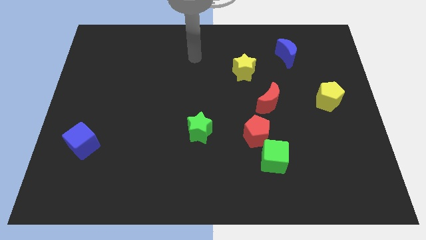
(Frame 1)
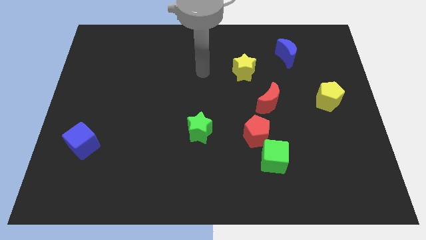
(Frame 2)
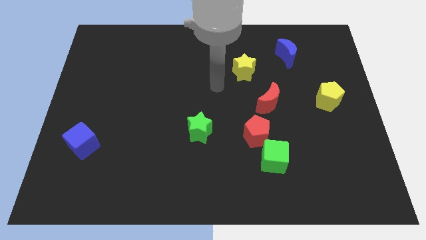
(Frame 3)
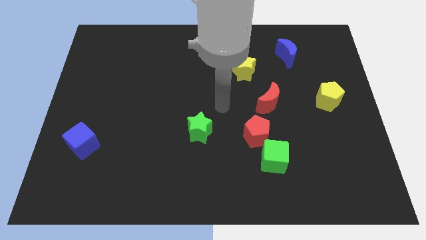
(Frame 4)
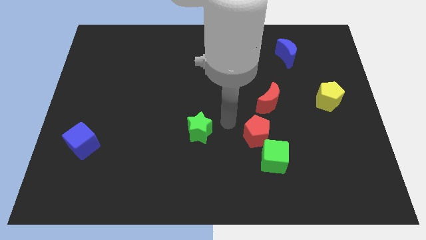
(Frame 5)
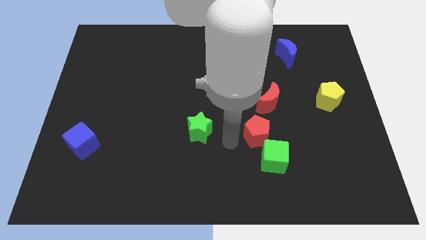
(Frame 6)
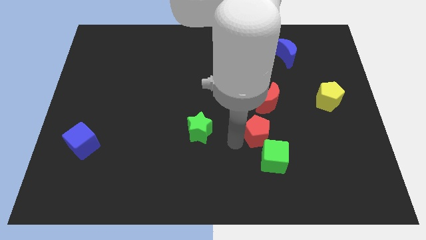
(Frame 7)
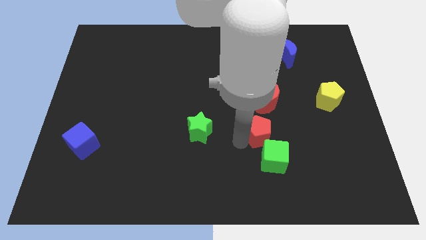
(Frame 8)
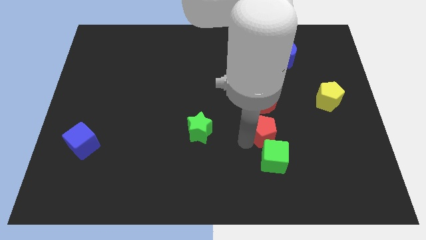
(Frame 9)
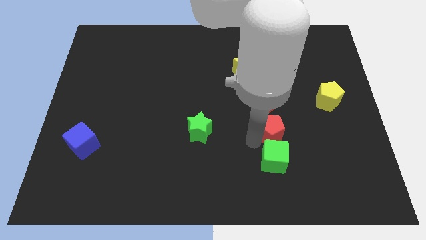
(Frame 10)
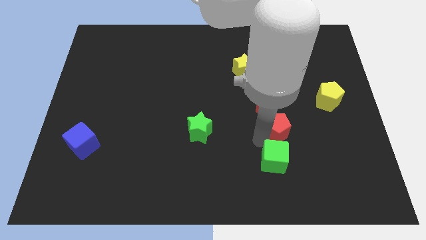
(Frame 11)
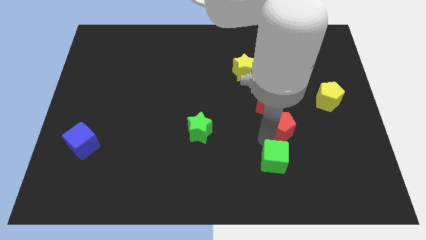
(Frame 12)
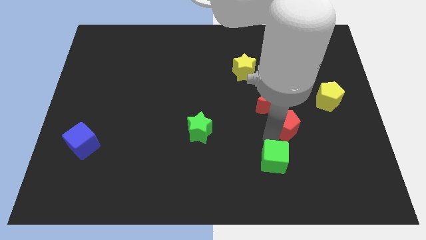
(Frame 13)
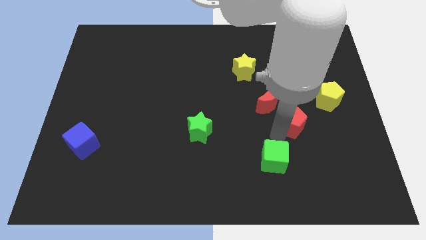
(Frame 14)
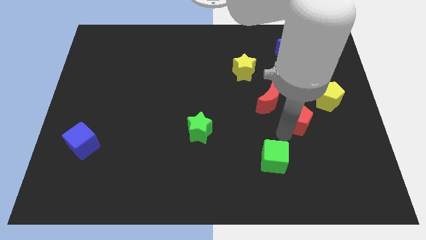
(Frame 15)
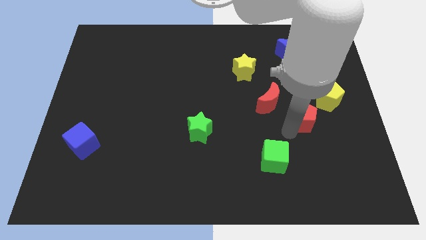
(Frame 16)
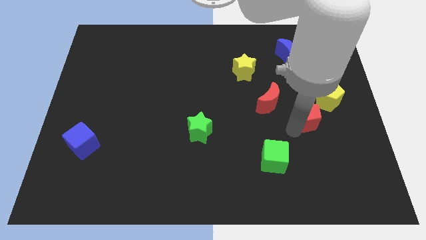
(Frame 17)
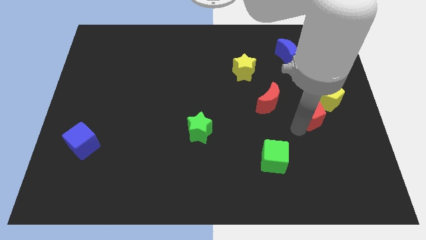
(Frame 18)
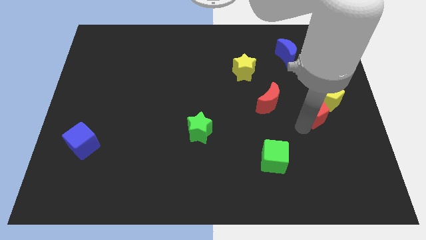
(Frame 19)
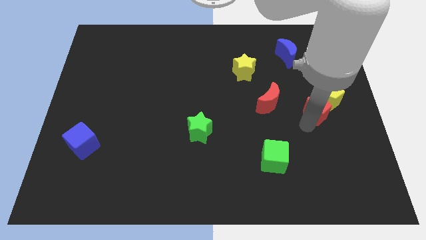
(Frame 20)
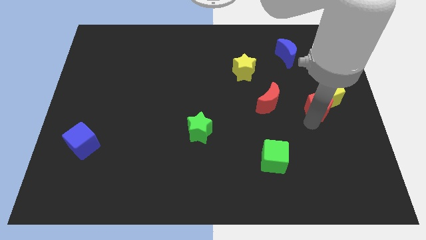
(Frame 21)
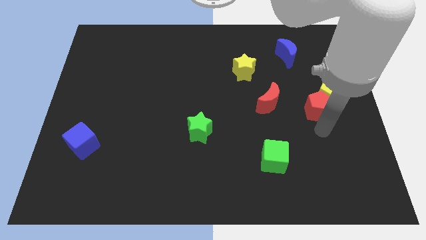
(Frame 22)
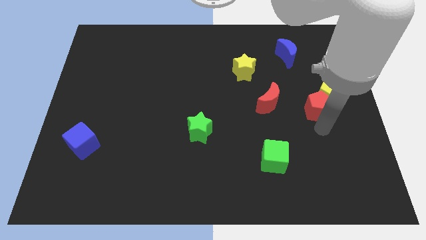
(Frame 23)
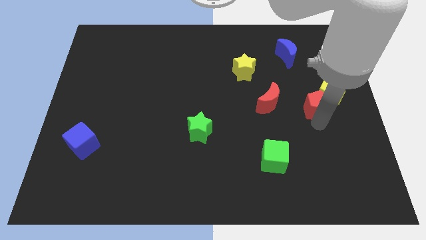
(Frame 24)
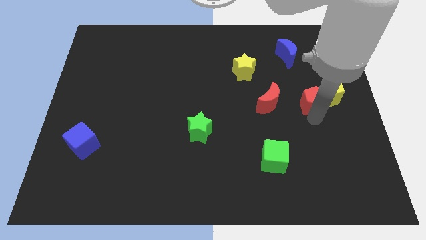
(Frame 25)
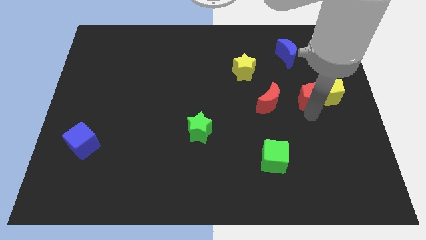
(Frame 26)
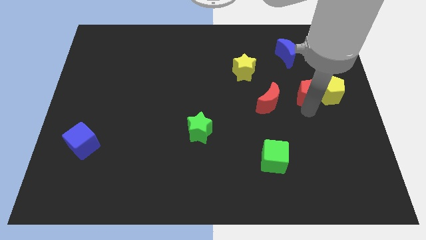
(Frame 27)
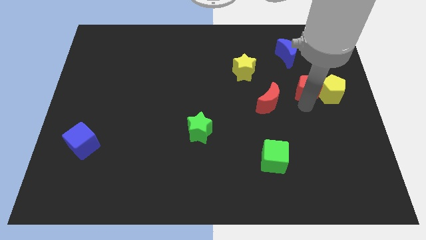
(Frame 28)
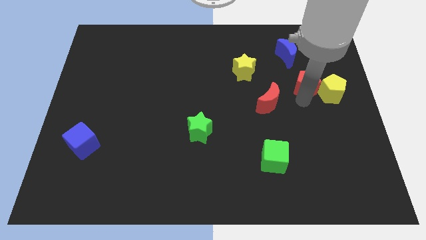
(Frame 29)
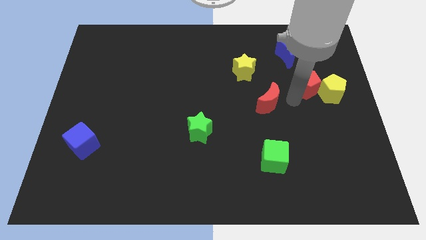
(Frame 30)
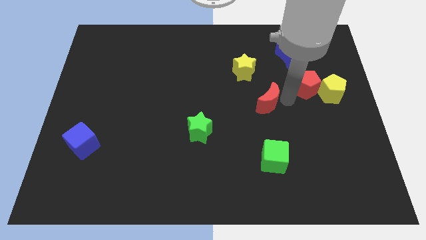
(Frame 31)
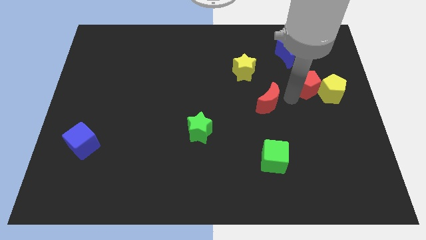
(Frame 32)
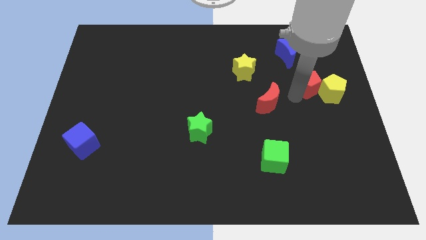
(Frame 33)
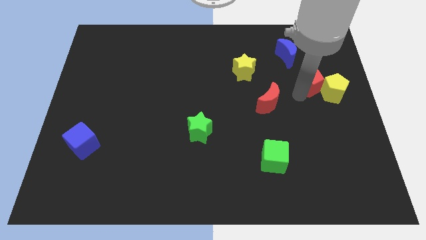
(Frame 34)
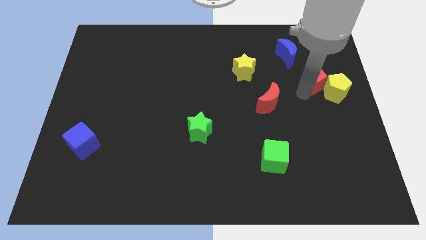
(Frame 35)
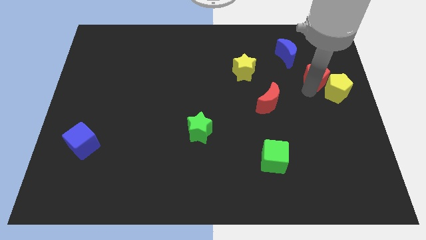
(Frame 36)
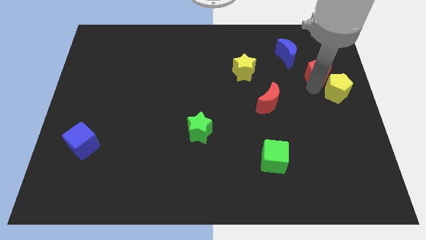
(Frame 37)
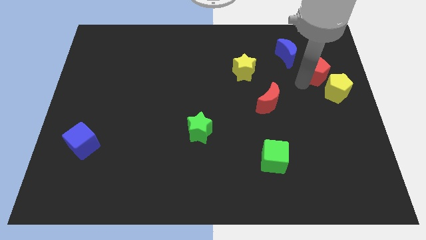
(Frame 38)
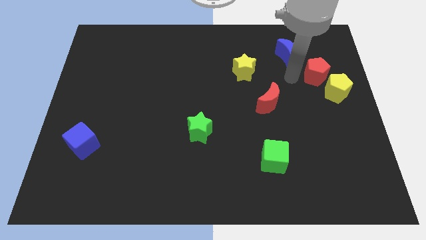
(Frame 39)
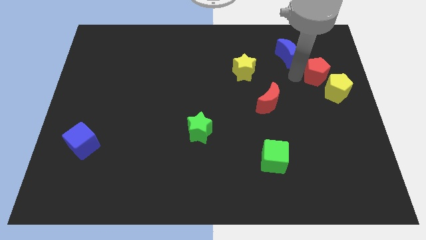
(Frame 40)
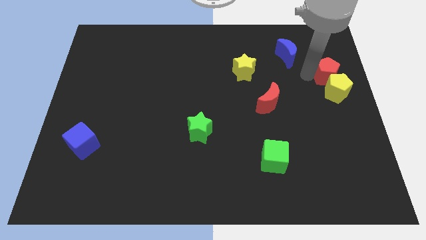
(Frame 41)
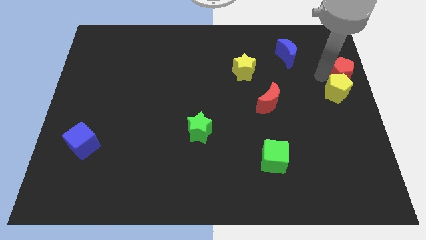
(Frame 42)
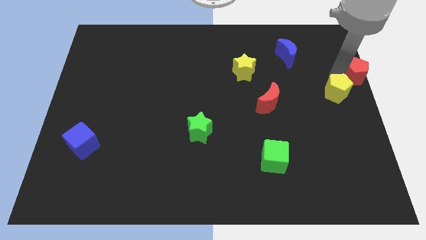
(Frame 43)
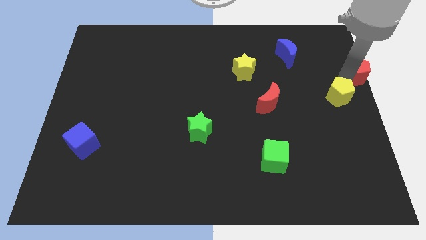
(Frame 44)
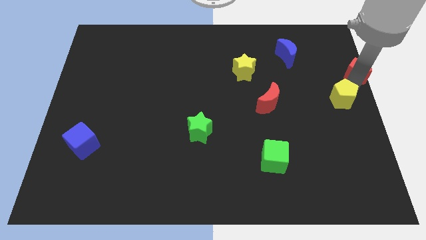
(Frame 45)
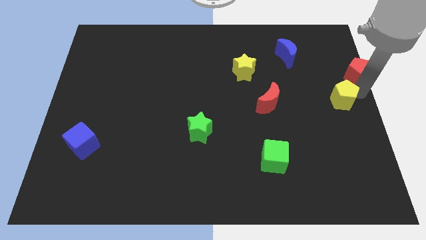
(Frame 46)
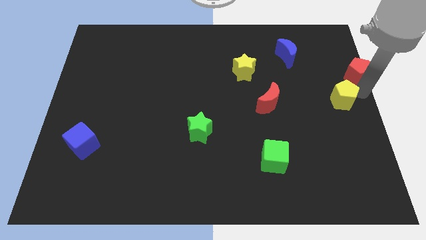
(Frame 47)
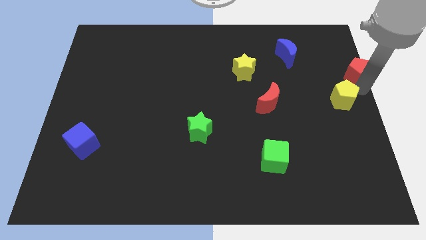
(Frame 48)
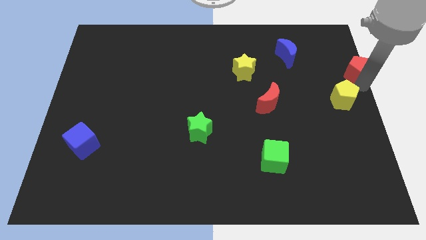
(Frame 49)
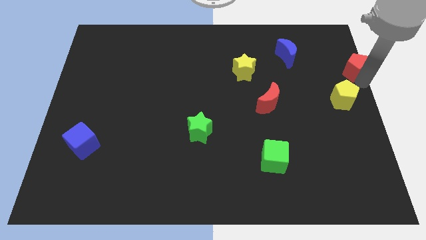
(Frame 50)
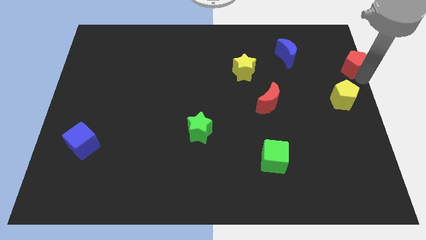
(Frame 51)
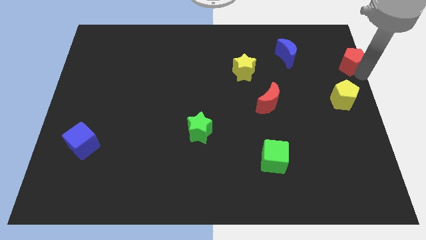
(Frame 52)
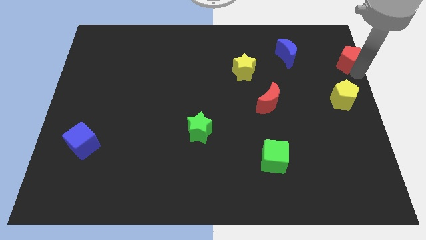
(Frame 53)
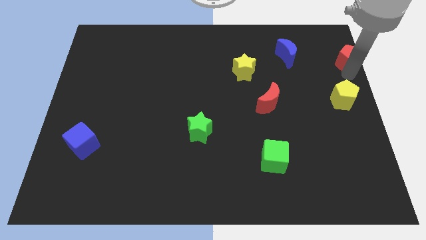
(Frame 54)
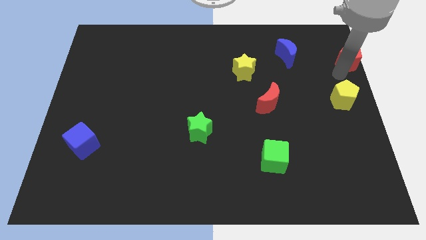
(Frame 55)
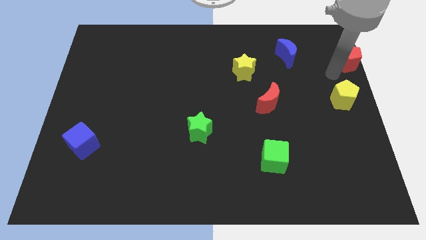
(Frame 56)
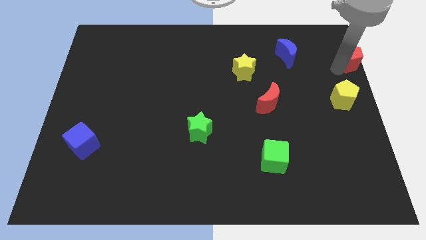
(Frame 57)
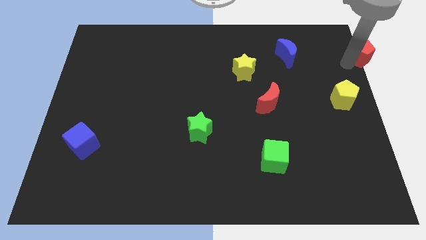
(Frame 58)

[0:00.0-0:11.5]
slide the red pentagon to the top right of the board
